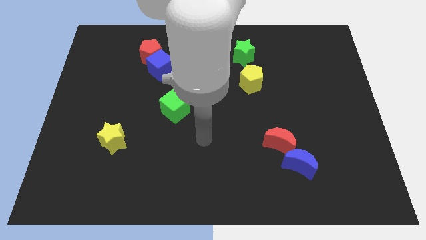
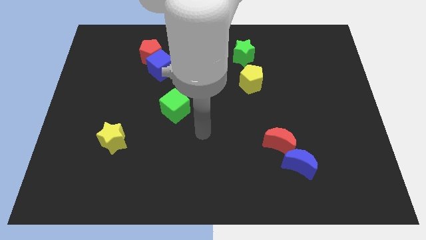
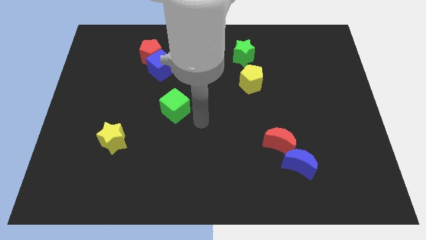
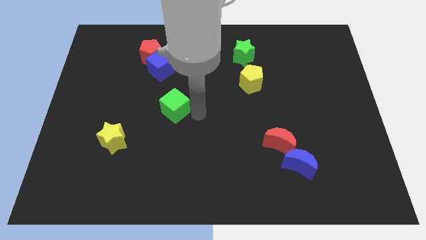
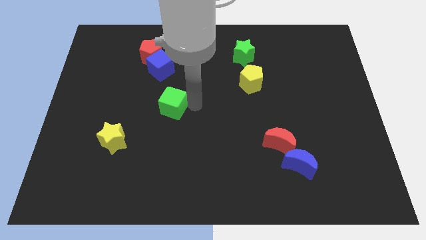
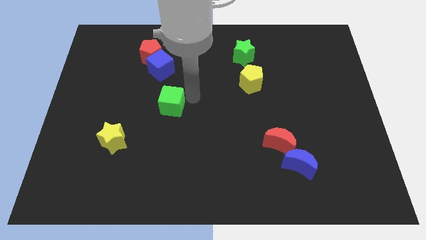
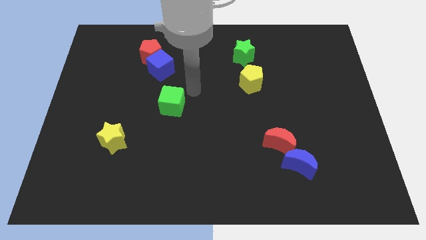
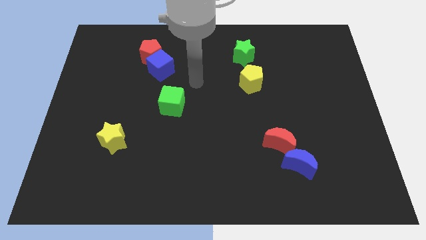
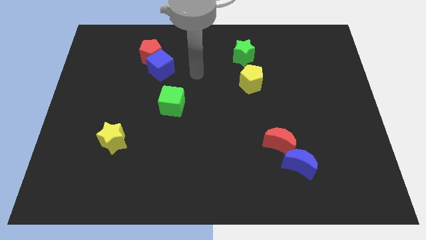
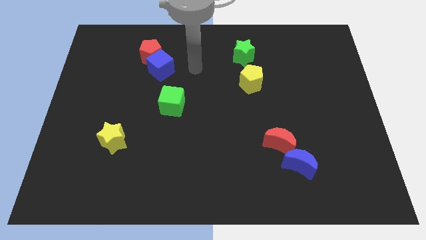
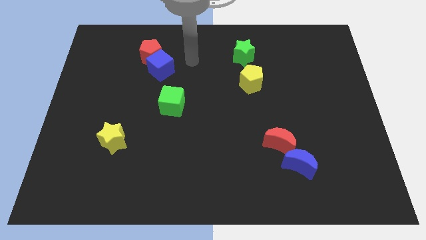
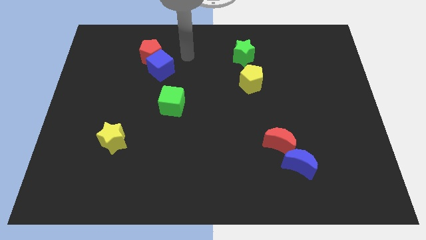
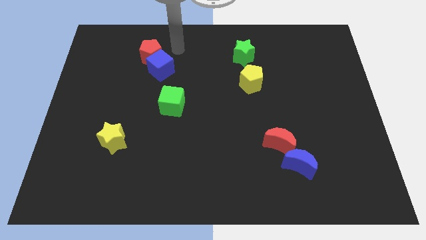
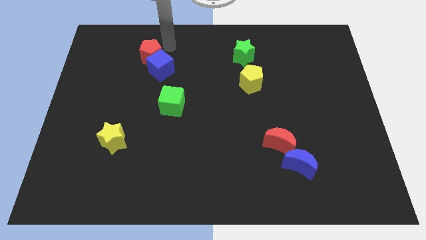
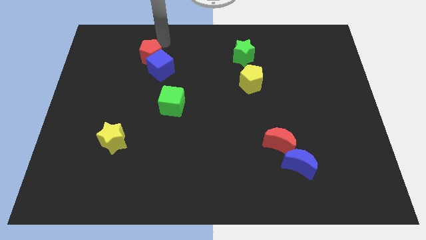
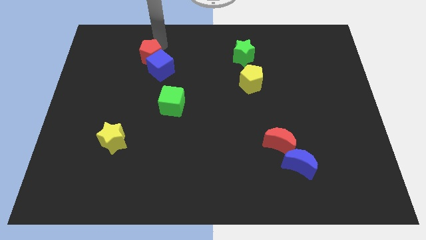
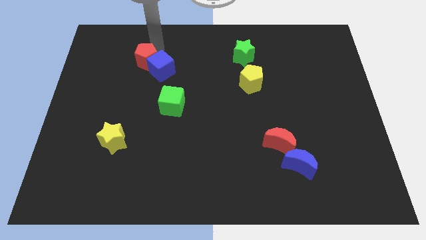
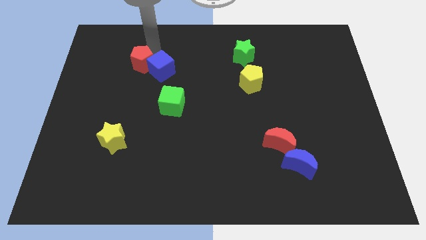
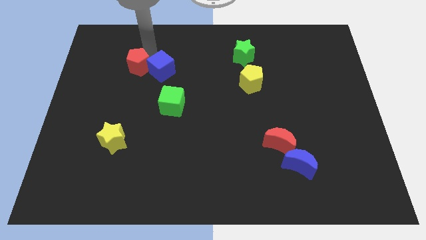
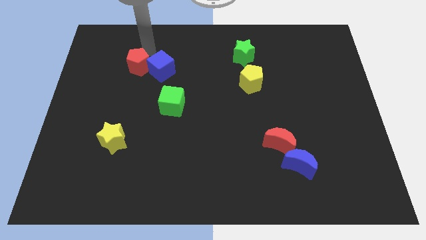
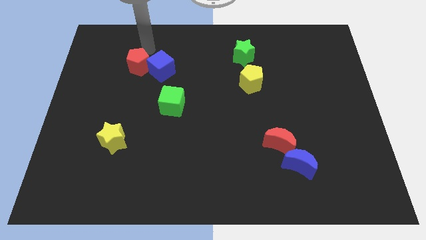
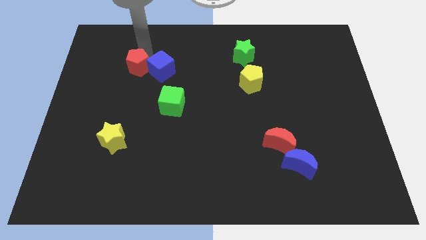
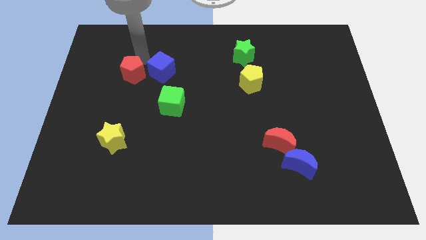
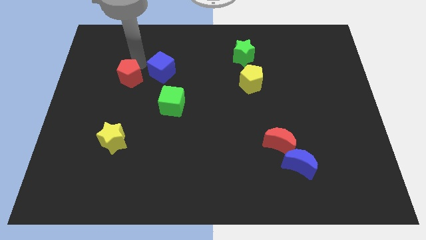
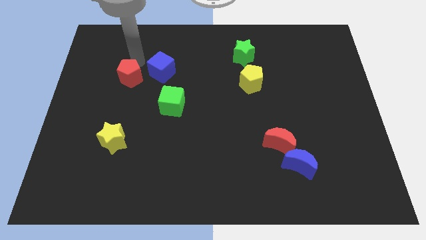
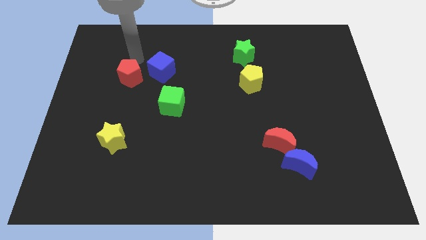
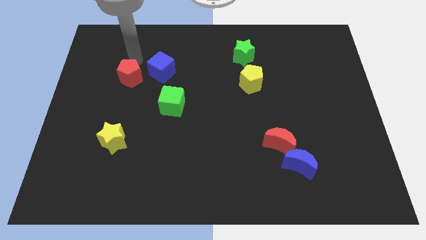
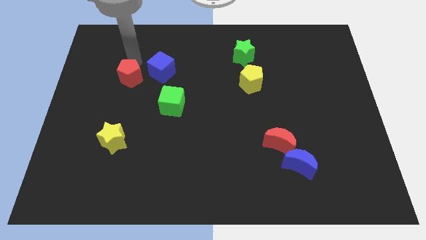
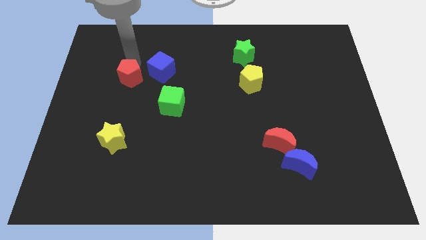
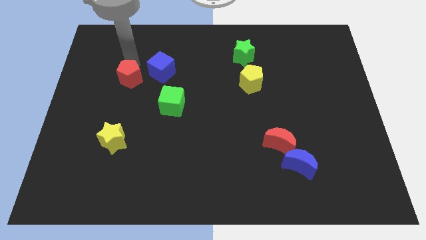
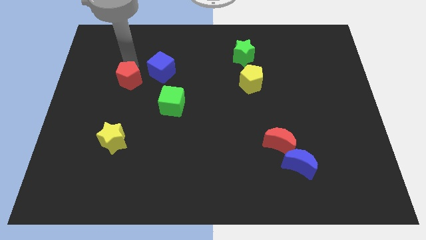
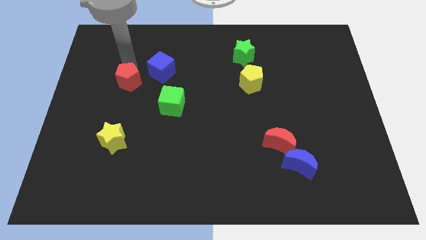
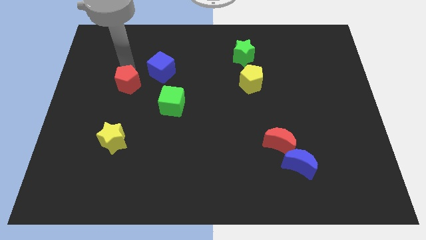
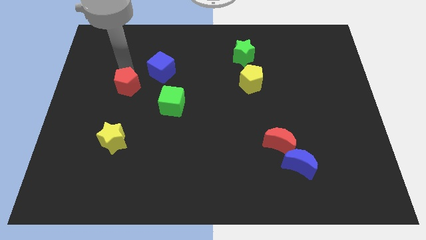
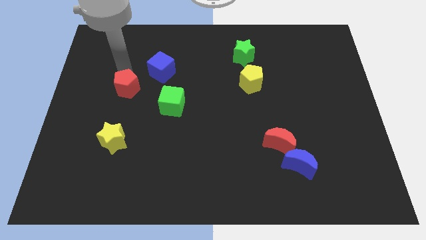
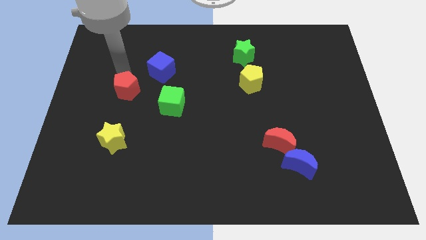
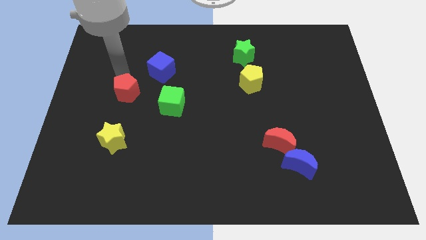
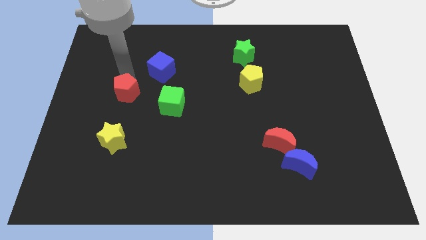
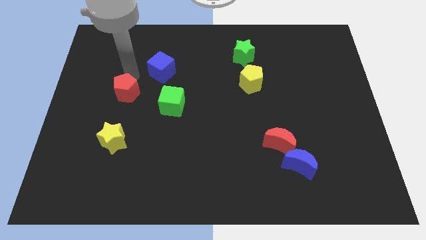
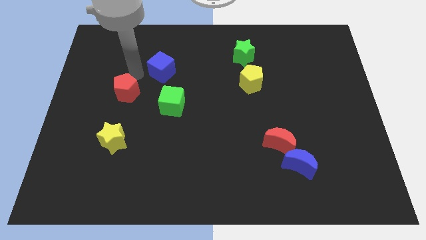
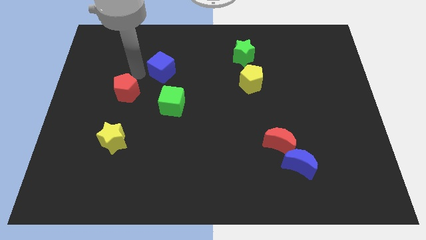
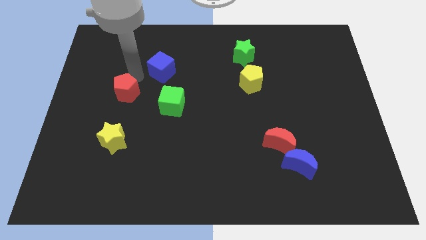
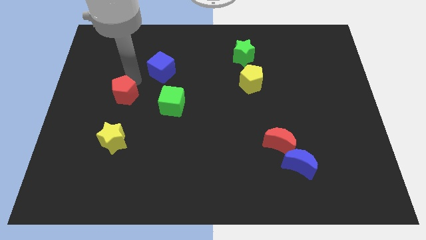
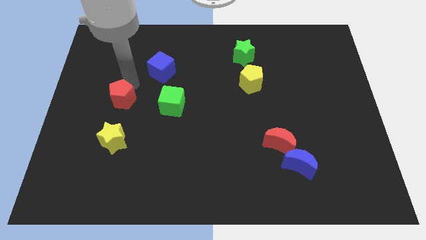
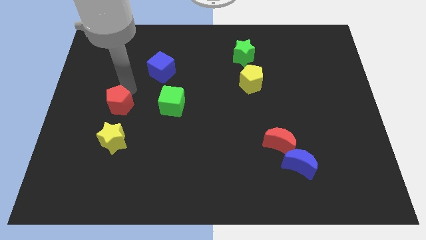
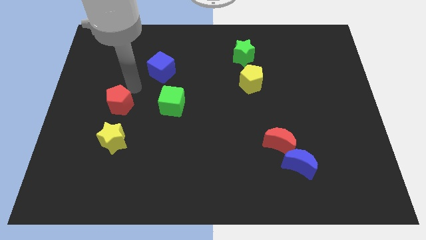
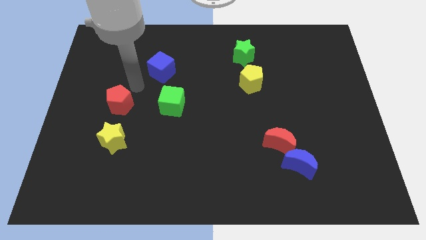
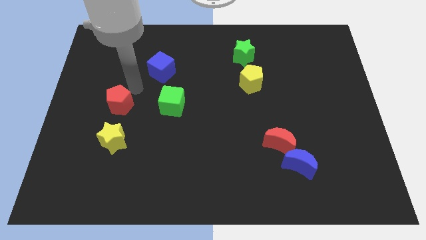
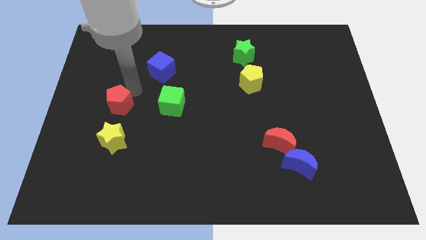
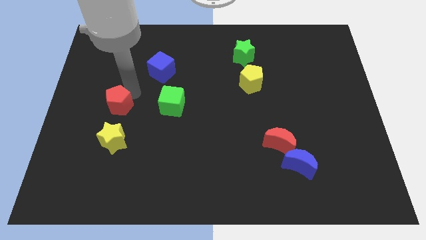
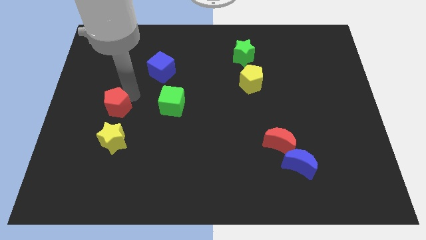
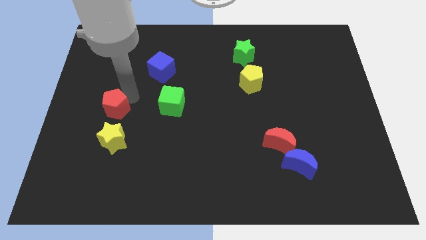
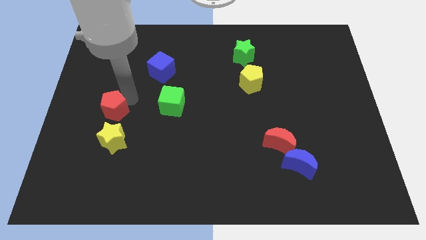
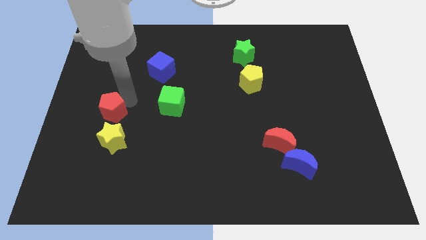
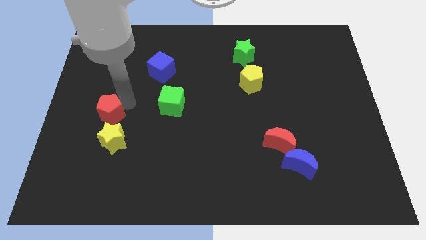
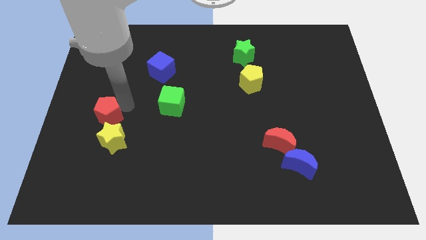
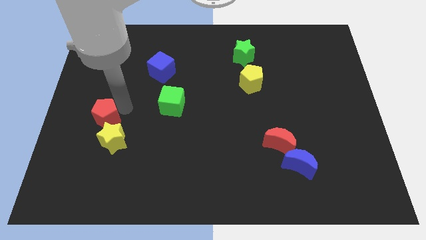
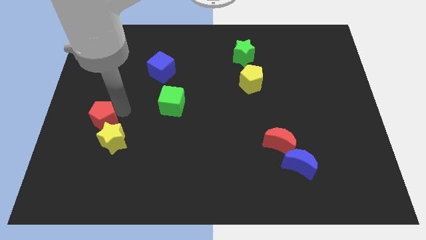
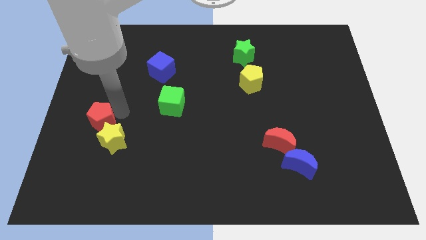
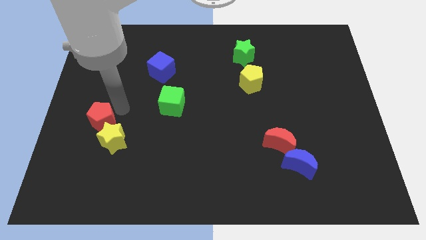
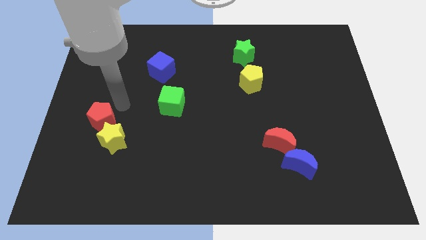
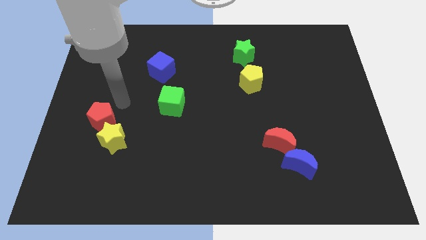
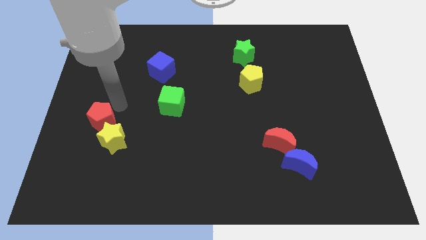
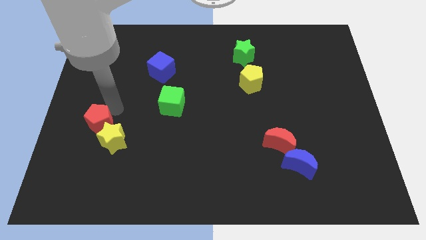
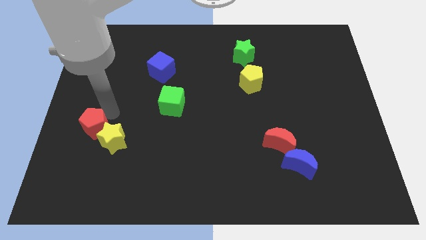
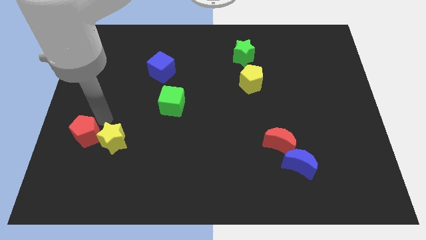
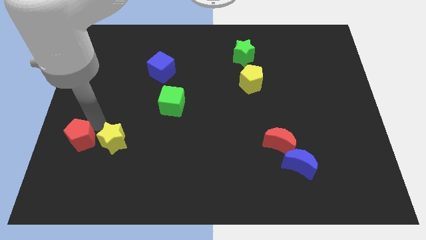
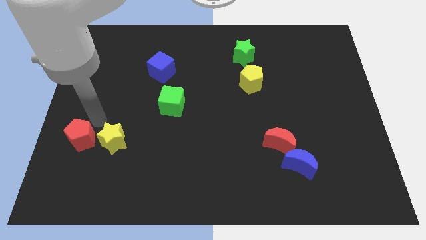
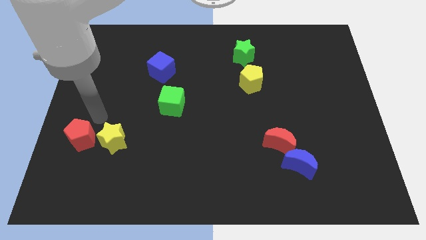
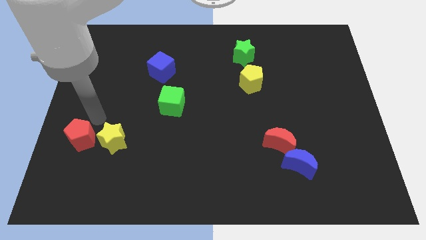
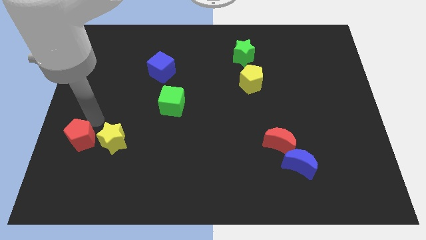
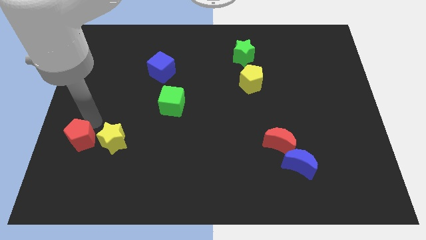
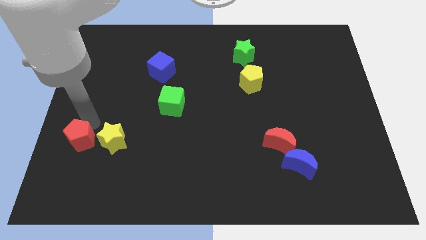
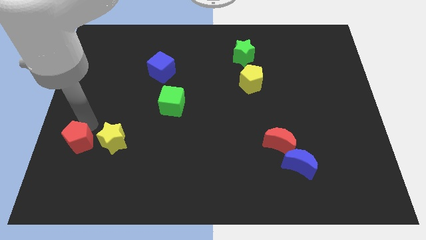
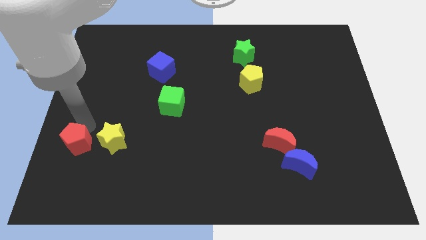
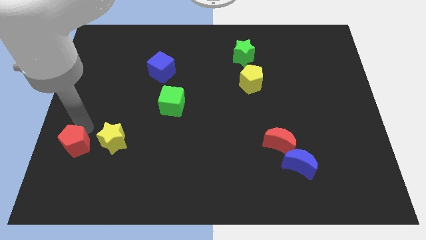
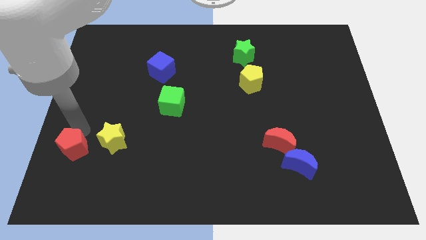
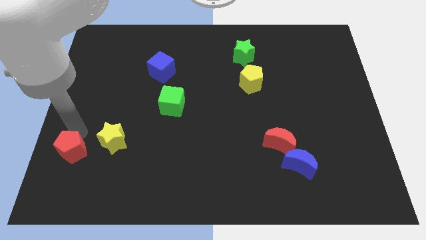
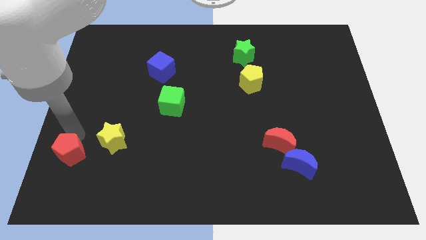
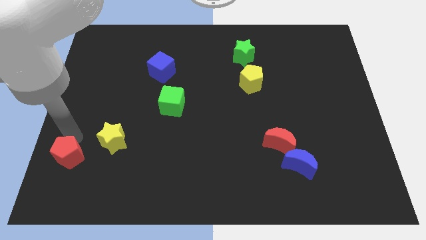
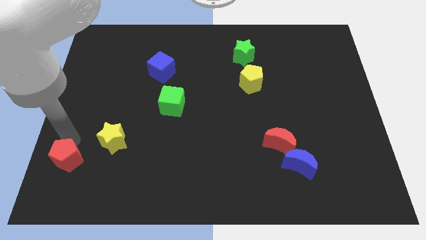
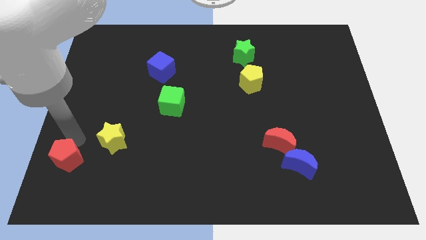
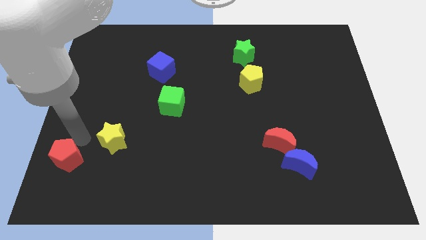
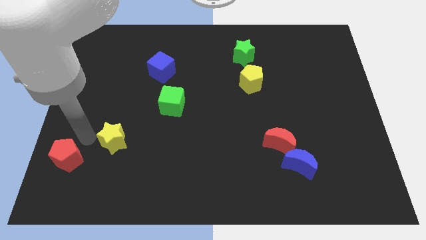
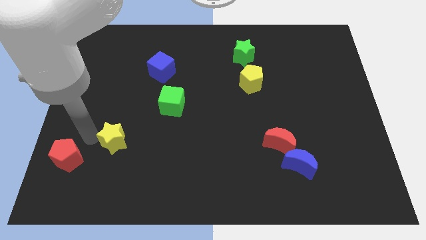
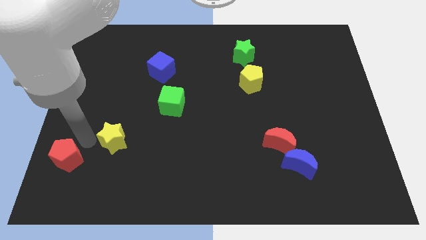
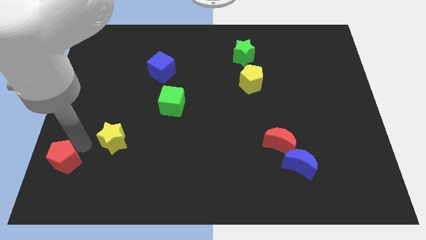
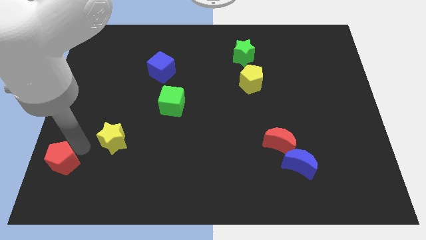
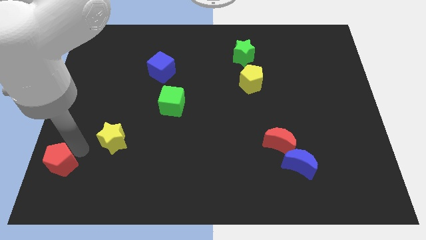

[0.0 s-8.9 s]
push the red pentagon to the bottom left
